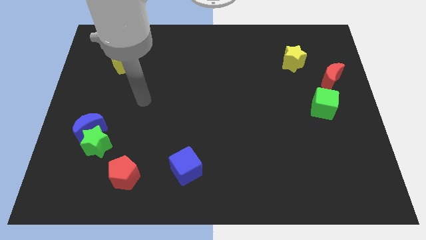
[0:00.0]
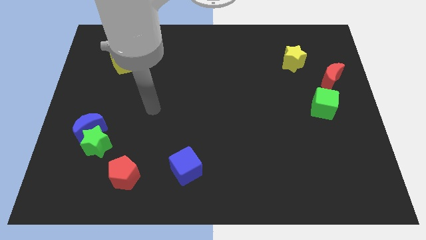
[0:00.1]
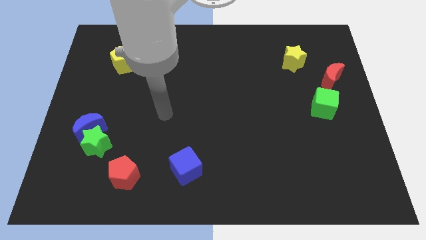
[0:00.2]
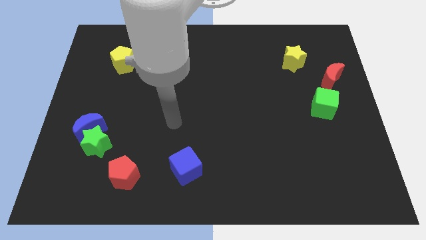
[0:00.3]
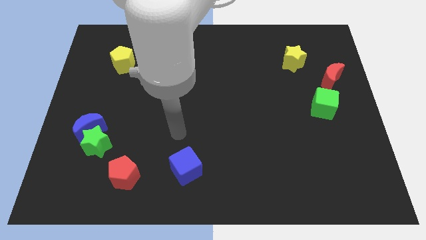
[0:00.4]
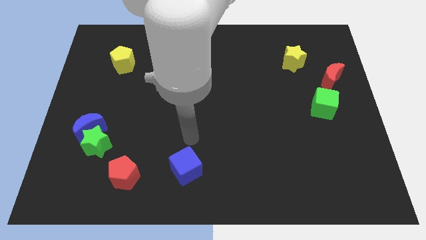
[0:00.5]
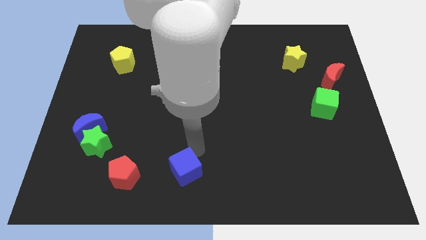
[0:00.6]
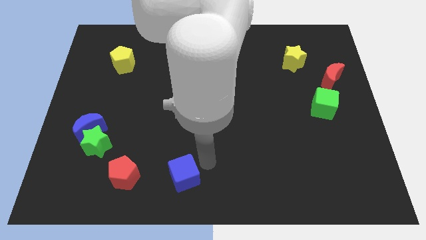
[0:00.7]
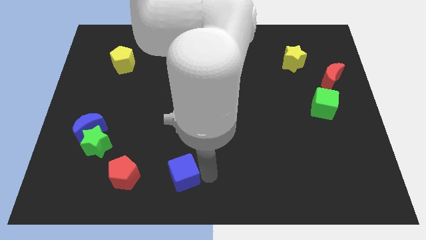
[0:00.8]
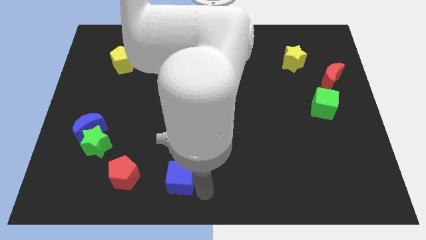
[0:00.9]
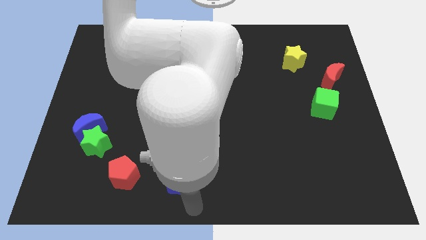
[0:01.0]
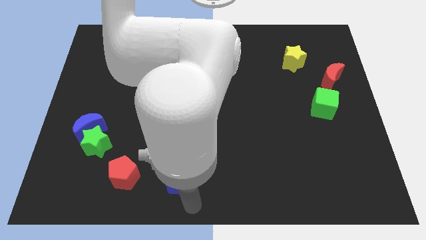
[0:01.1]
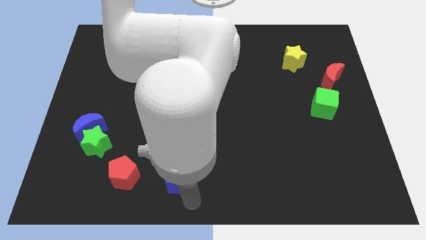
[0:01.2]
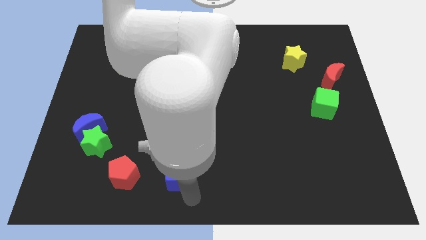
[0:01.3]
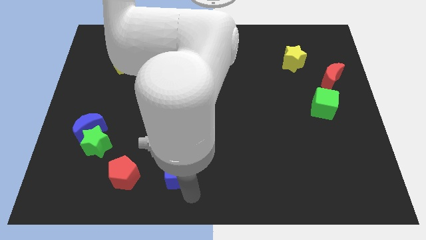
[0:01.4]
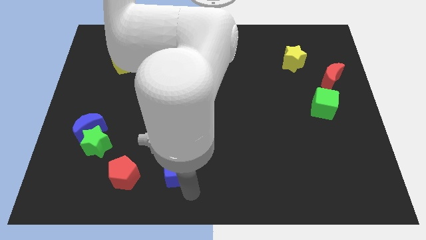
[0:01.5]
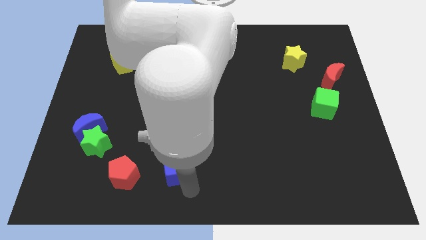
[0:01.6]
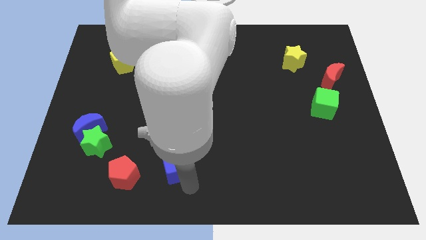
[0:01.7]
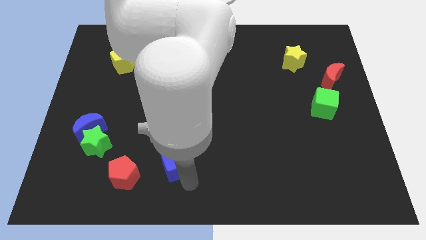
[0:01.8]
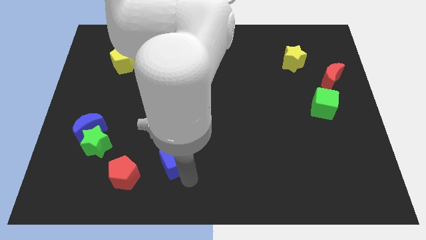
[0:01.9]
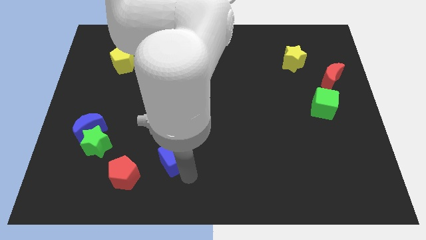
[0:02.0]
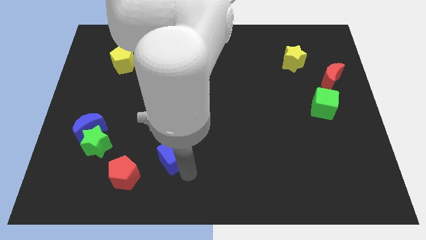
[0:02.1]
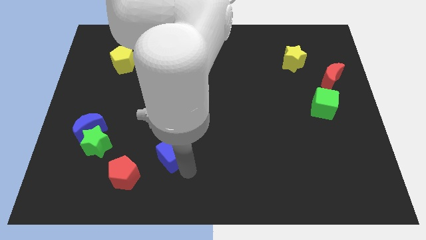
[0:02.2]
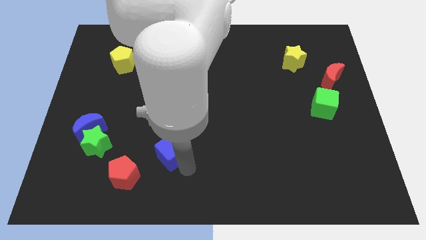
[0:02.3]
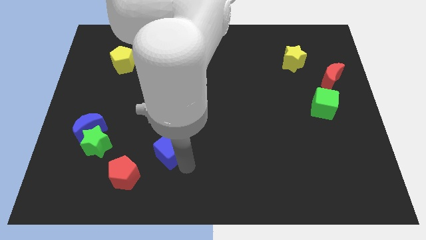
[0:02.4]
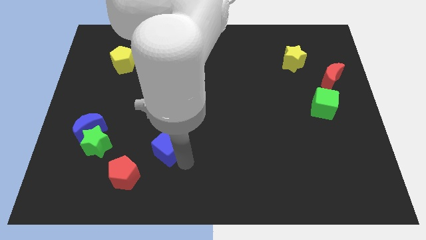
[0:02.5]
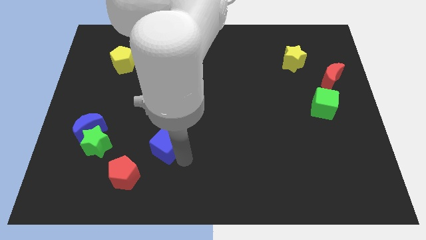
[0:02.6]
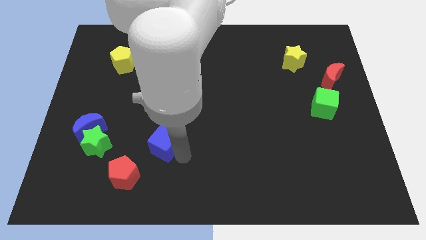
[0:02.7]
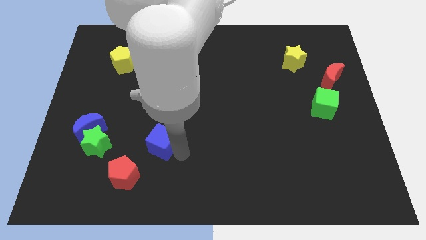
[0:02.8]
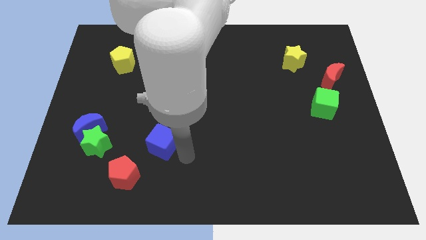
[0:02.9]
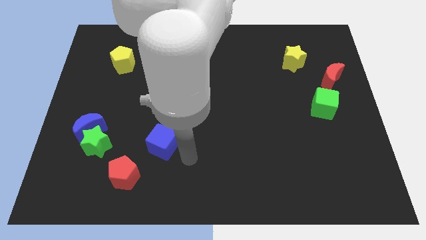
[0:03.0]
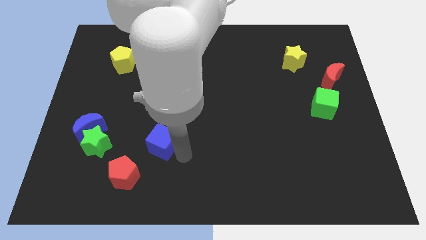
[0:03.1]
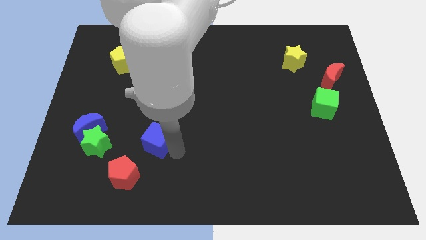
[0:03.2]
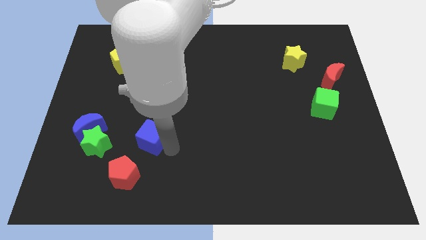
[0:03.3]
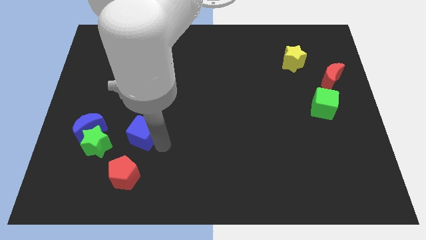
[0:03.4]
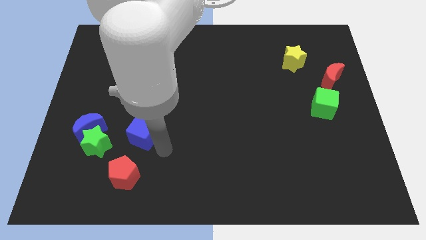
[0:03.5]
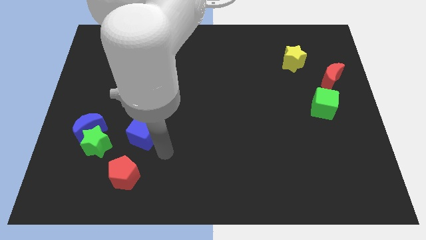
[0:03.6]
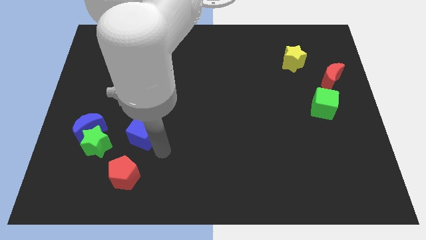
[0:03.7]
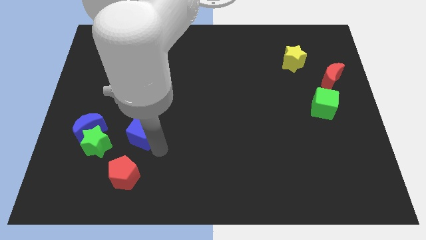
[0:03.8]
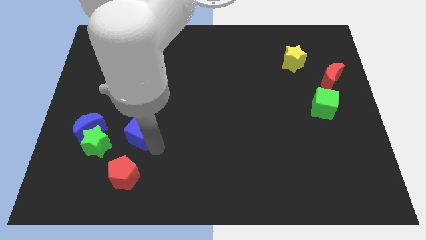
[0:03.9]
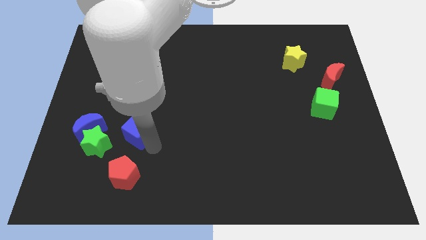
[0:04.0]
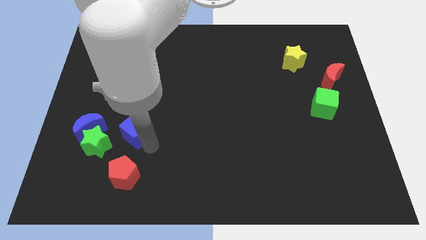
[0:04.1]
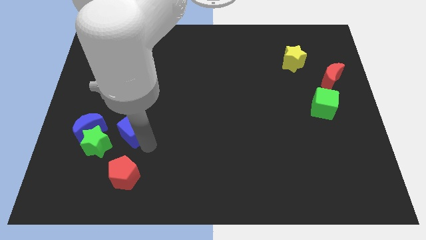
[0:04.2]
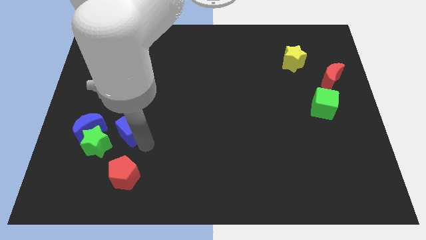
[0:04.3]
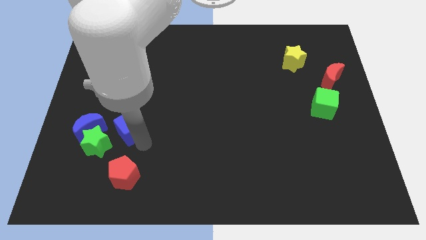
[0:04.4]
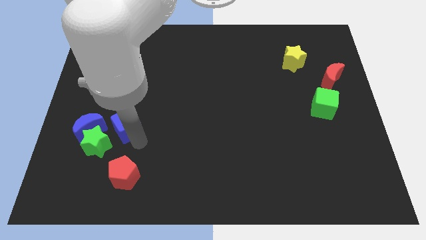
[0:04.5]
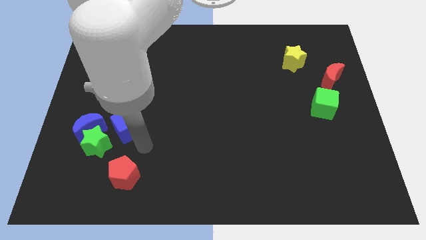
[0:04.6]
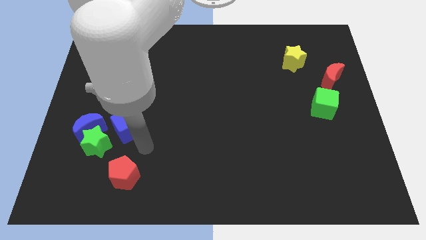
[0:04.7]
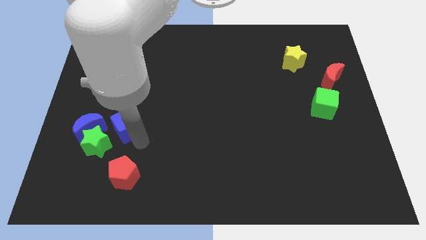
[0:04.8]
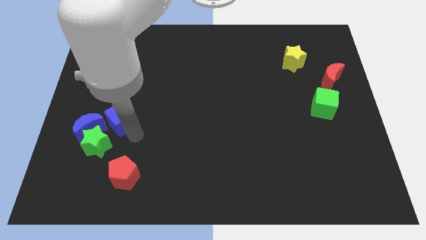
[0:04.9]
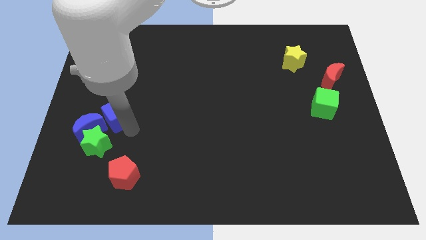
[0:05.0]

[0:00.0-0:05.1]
move the blue cube up and to the left

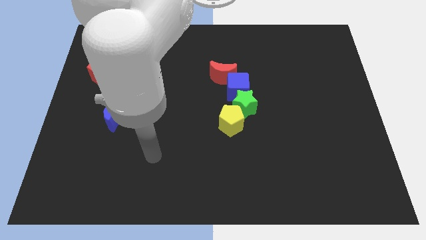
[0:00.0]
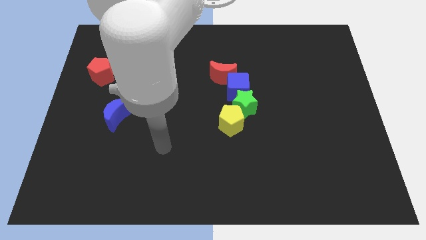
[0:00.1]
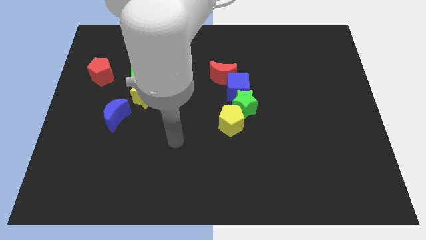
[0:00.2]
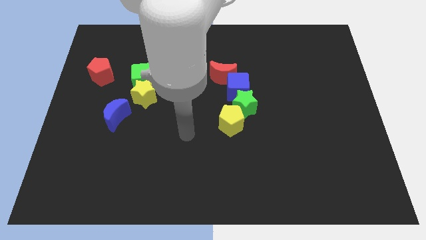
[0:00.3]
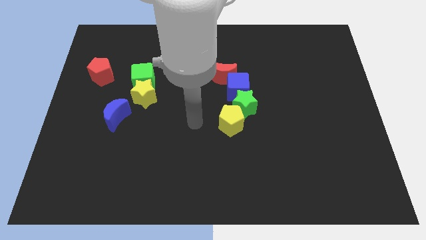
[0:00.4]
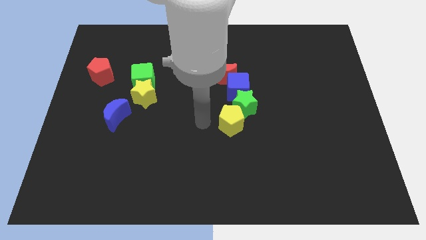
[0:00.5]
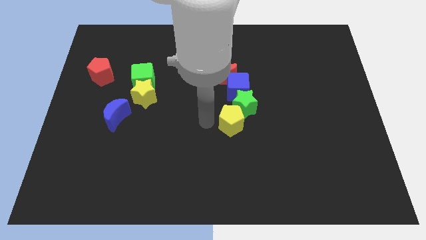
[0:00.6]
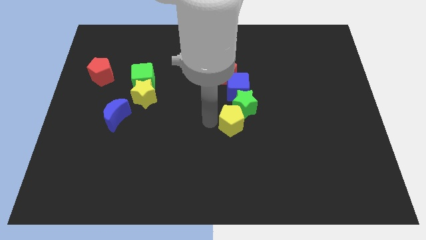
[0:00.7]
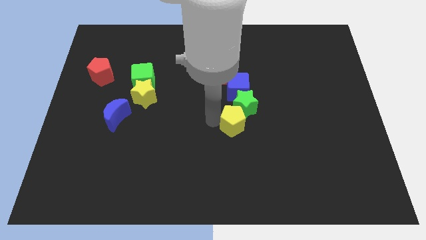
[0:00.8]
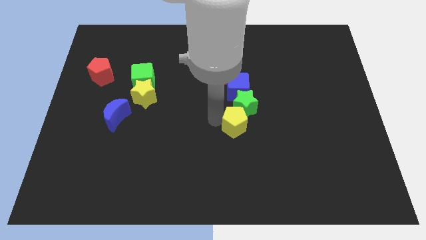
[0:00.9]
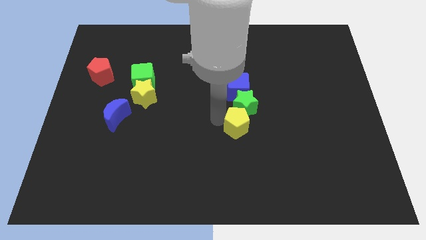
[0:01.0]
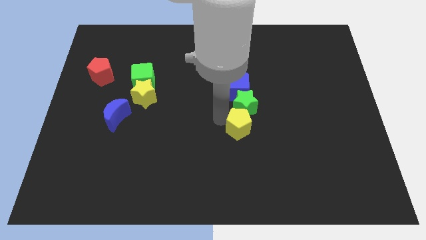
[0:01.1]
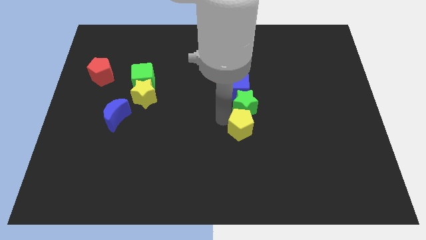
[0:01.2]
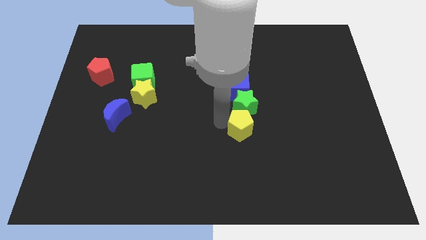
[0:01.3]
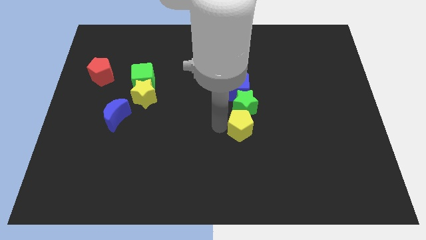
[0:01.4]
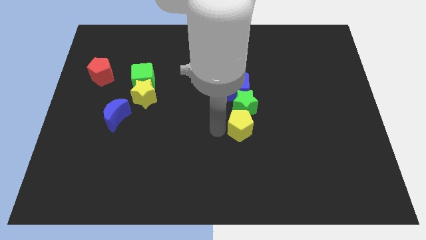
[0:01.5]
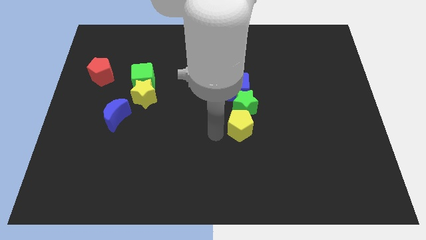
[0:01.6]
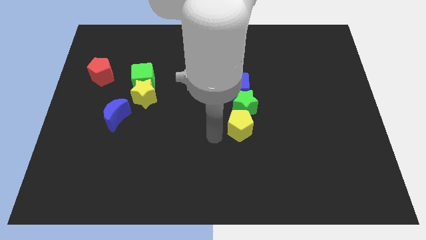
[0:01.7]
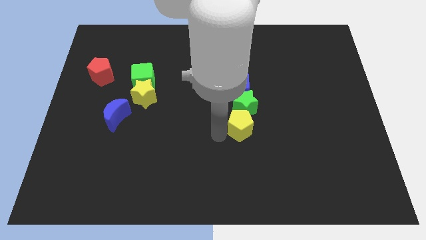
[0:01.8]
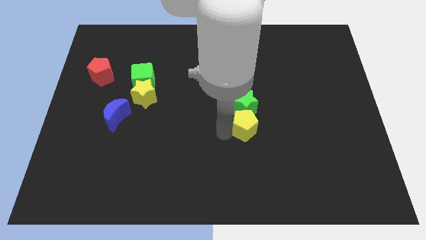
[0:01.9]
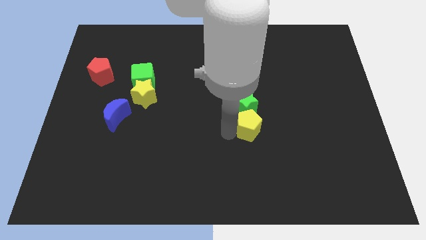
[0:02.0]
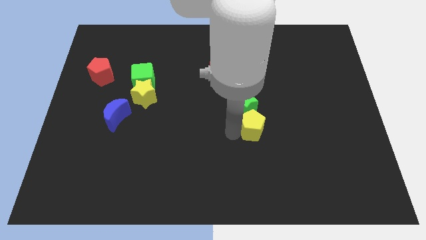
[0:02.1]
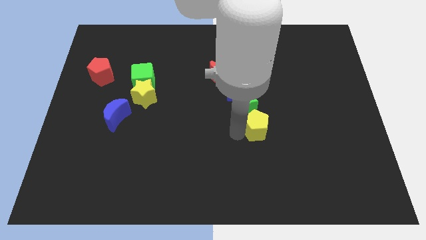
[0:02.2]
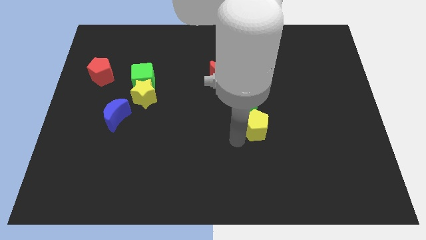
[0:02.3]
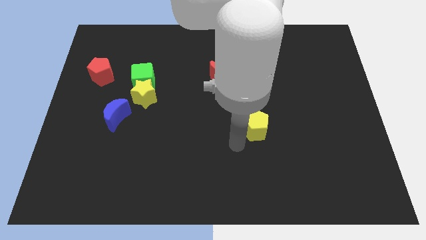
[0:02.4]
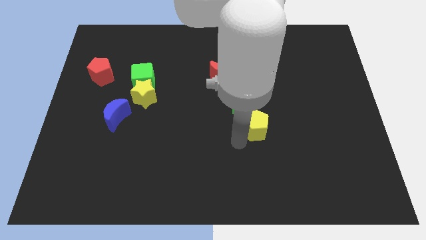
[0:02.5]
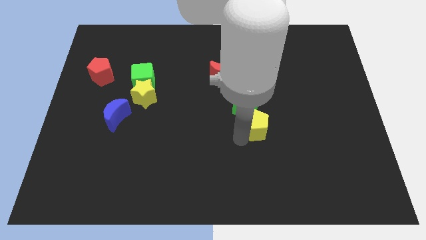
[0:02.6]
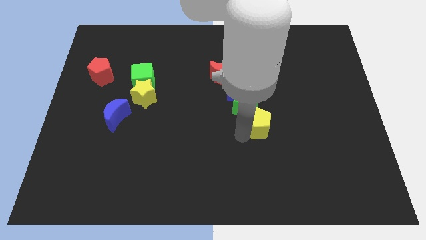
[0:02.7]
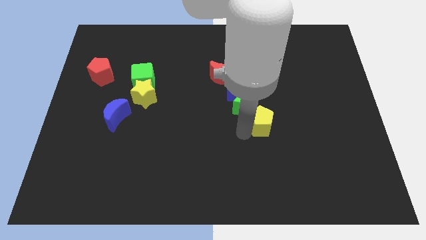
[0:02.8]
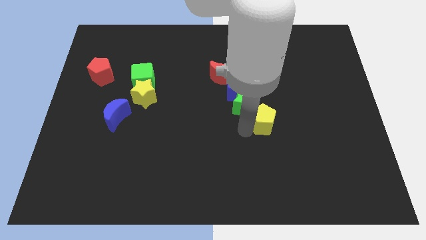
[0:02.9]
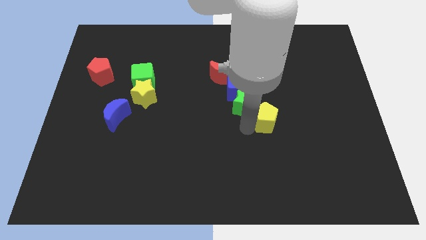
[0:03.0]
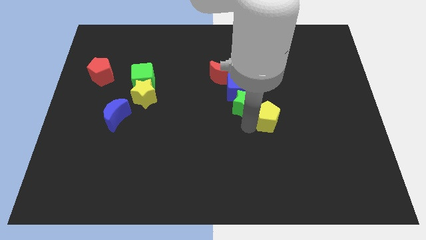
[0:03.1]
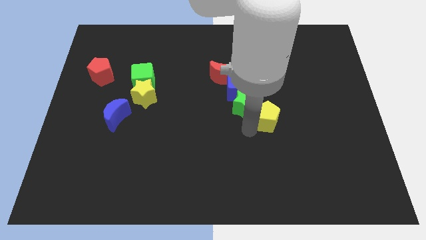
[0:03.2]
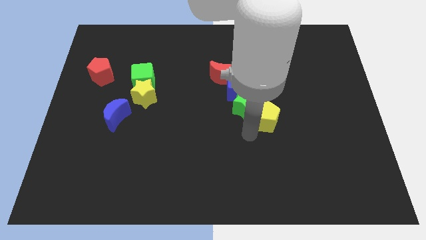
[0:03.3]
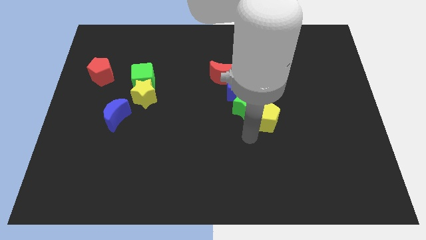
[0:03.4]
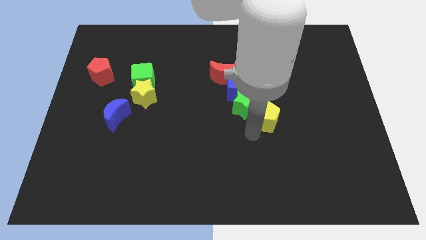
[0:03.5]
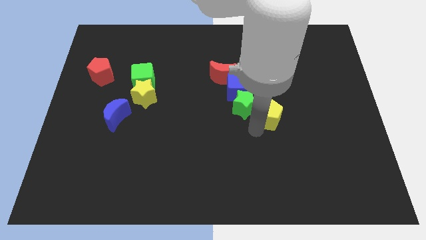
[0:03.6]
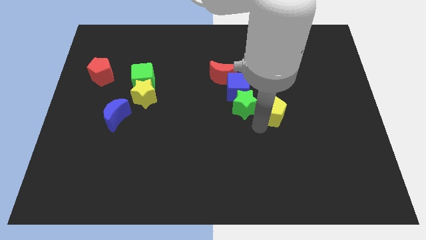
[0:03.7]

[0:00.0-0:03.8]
slide the yellow pentagon a bit up and then to the right
